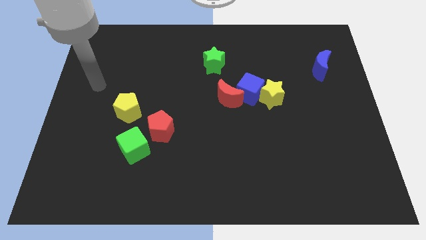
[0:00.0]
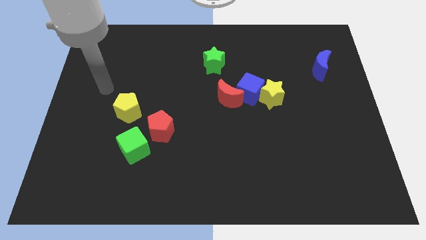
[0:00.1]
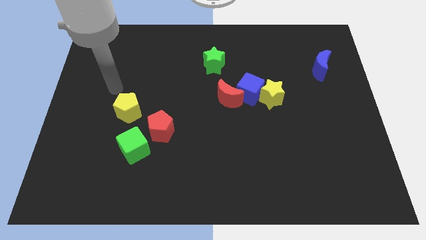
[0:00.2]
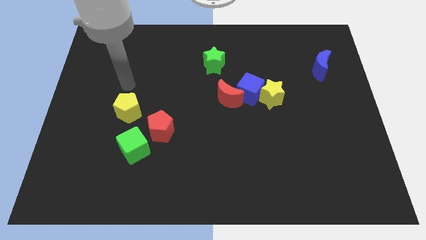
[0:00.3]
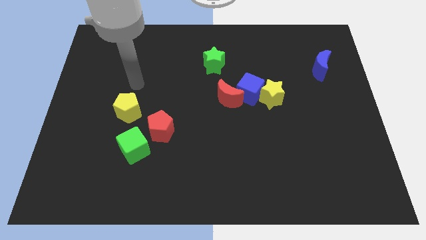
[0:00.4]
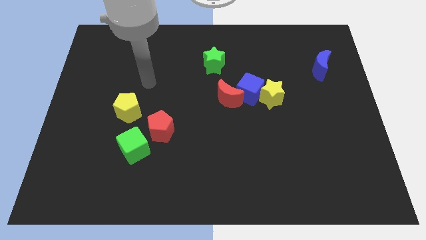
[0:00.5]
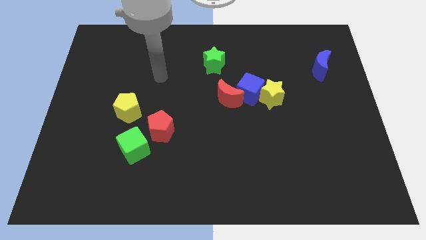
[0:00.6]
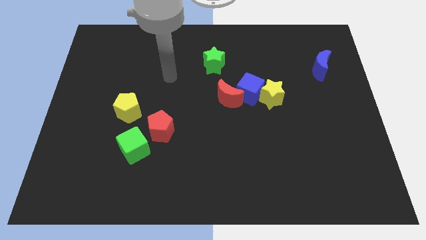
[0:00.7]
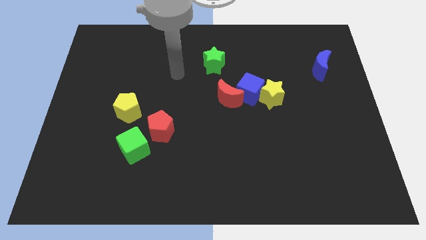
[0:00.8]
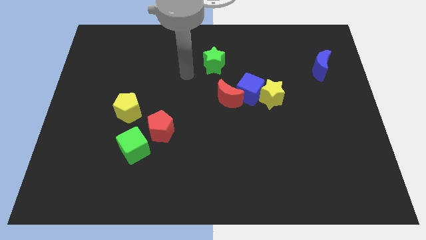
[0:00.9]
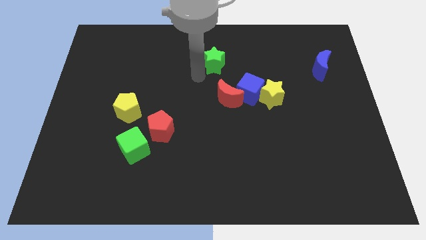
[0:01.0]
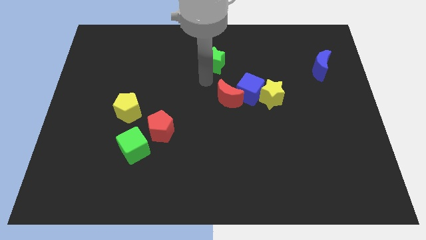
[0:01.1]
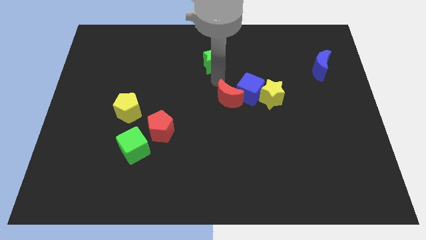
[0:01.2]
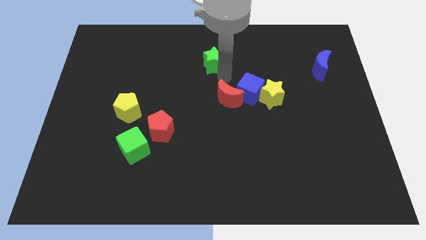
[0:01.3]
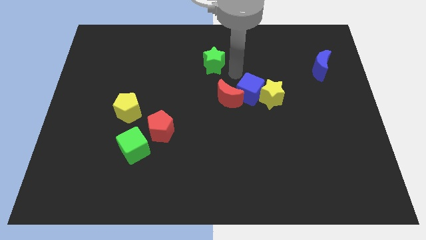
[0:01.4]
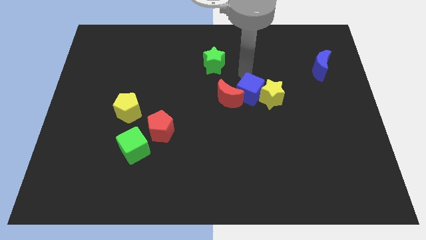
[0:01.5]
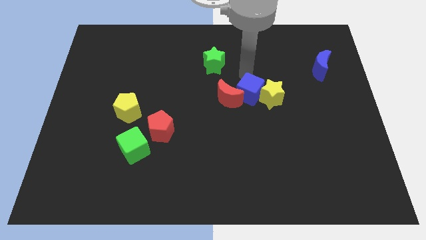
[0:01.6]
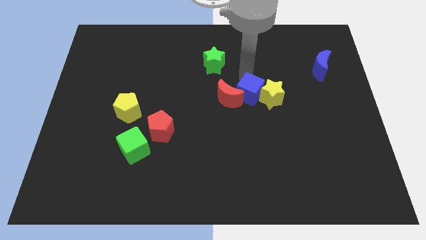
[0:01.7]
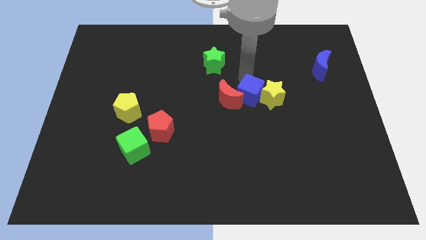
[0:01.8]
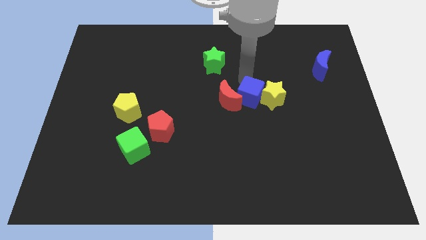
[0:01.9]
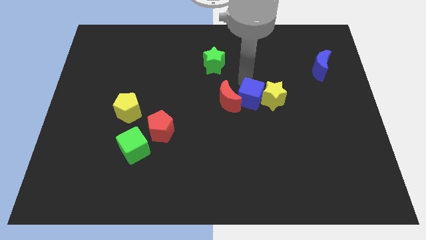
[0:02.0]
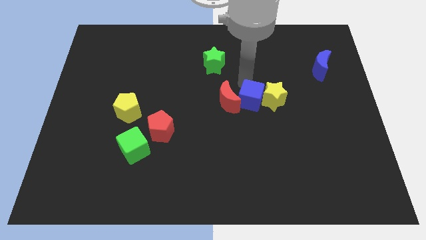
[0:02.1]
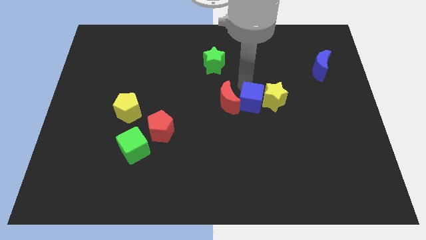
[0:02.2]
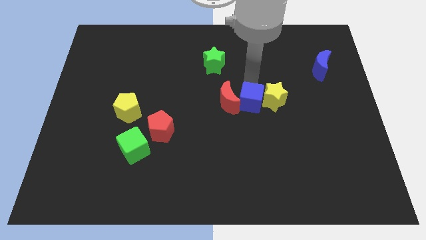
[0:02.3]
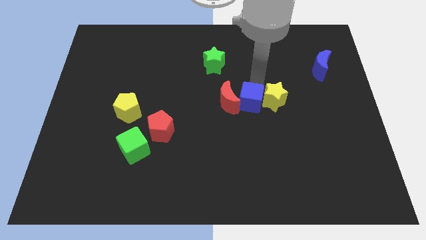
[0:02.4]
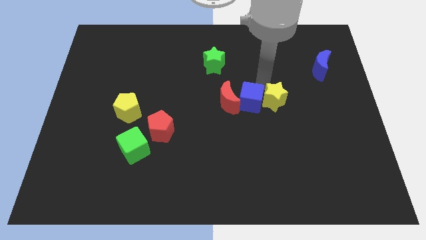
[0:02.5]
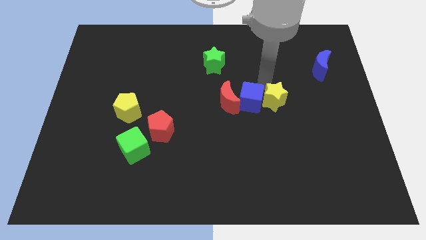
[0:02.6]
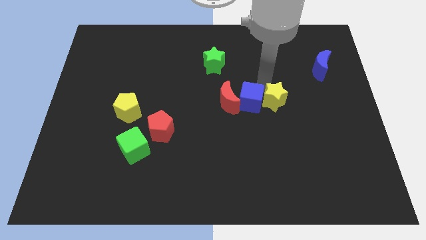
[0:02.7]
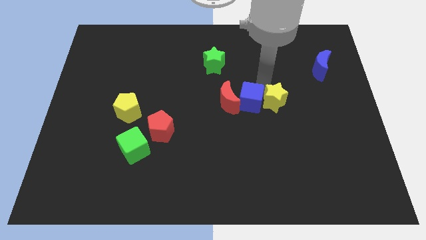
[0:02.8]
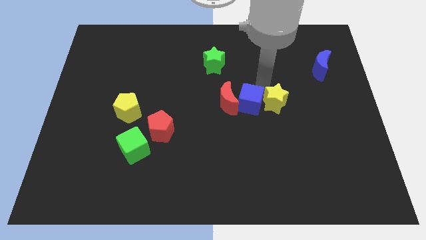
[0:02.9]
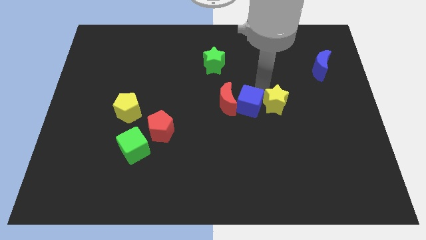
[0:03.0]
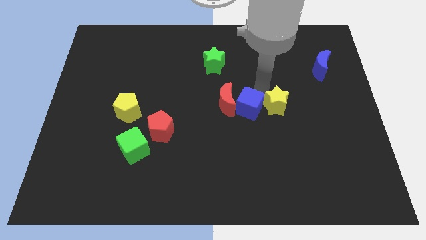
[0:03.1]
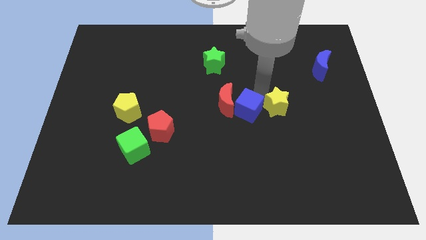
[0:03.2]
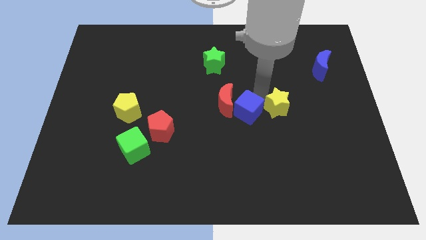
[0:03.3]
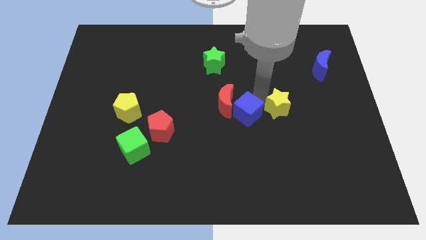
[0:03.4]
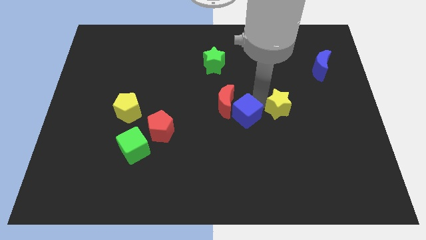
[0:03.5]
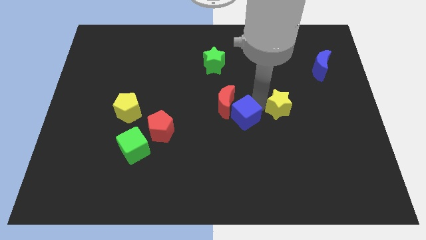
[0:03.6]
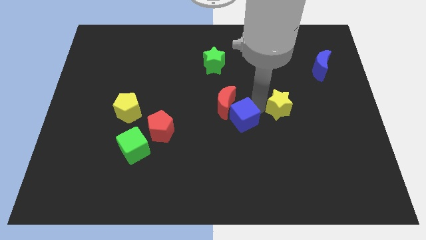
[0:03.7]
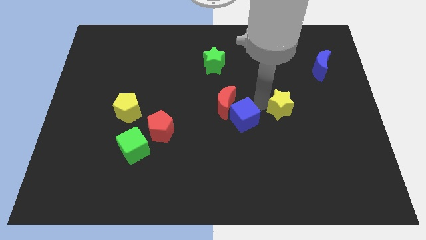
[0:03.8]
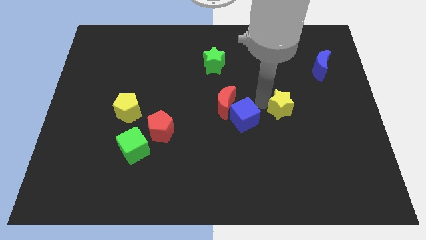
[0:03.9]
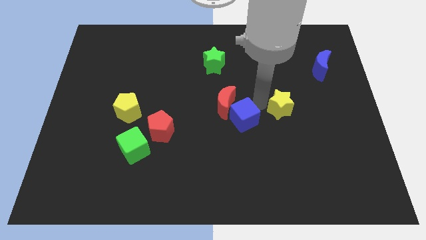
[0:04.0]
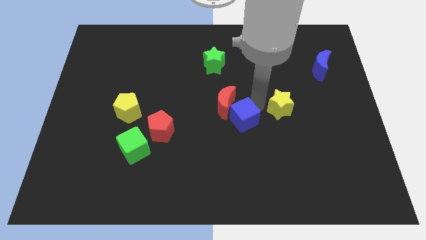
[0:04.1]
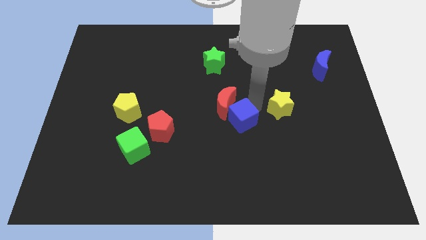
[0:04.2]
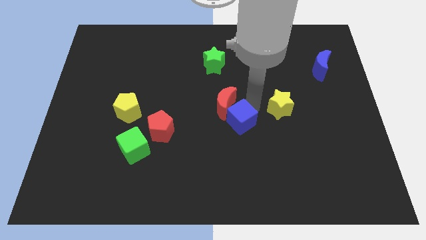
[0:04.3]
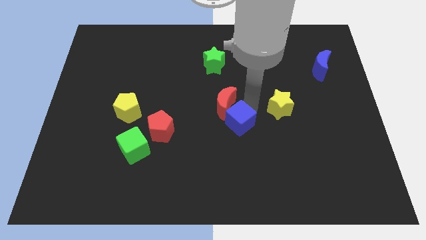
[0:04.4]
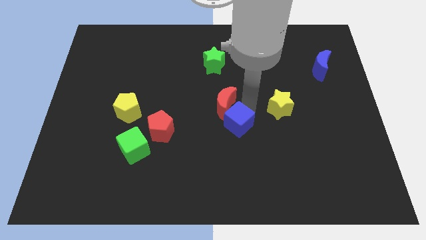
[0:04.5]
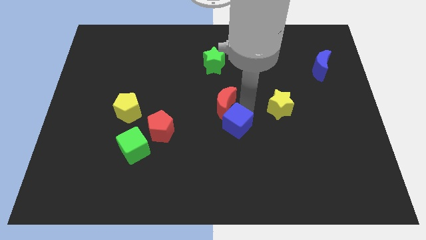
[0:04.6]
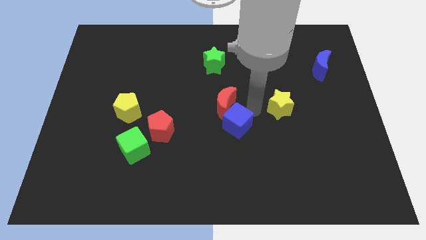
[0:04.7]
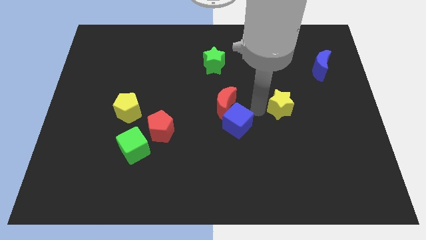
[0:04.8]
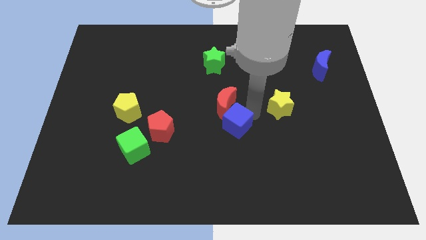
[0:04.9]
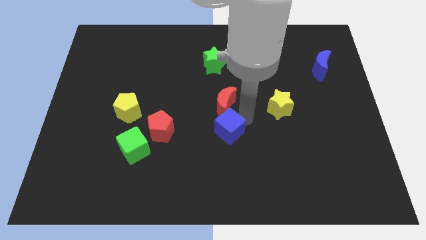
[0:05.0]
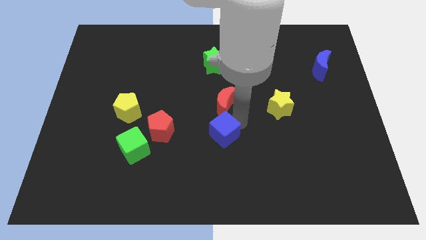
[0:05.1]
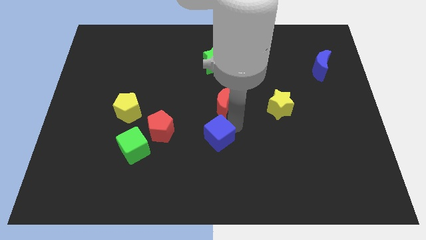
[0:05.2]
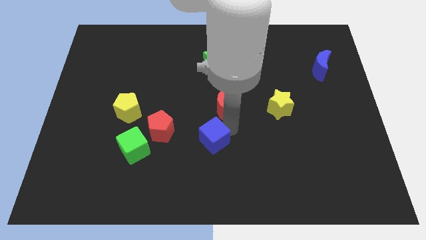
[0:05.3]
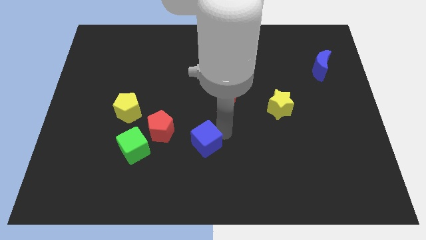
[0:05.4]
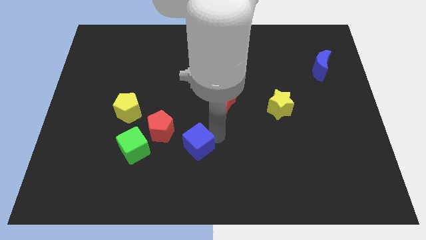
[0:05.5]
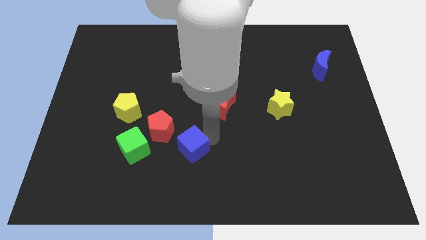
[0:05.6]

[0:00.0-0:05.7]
move the blue cube downwards and to the left

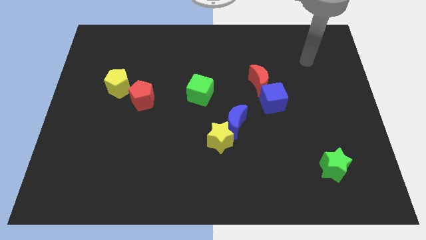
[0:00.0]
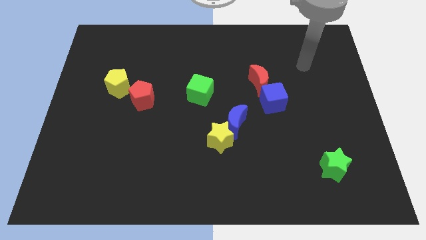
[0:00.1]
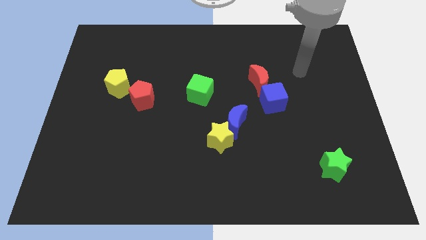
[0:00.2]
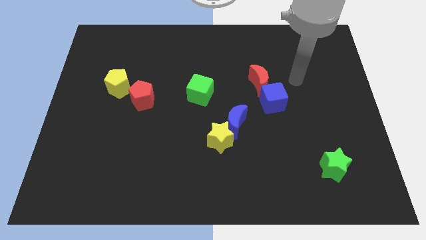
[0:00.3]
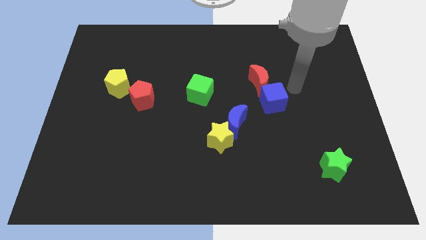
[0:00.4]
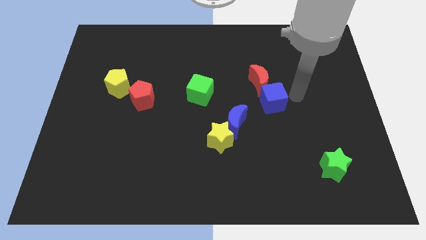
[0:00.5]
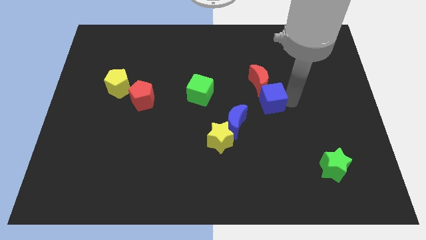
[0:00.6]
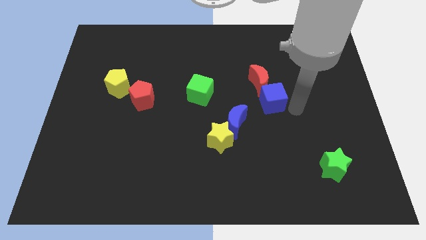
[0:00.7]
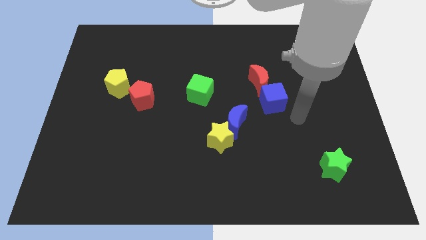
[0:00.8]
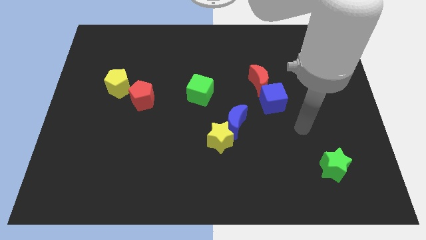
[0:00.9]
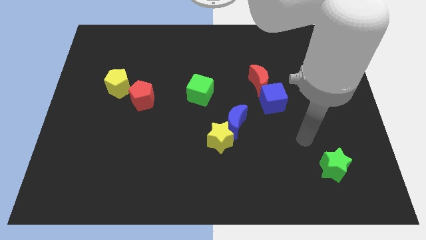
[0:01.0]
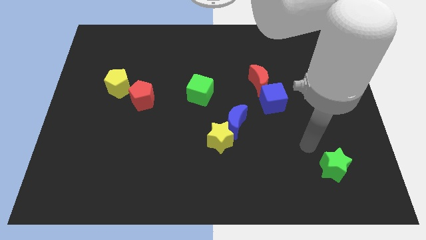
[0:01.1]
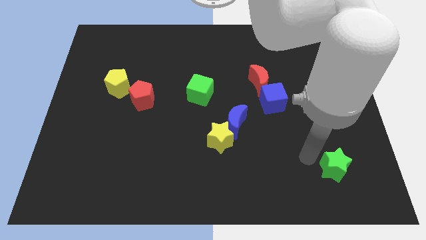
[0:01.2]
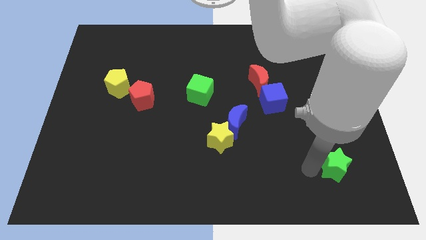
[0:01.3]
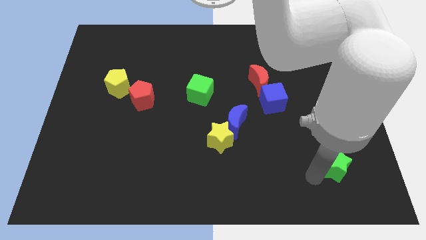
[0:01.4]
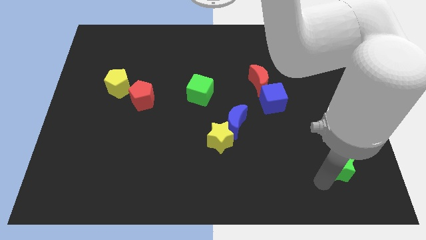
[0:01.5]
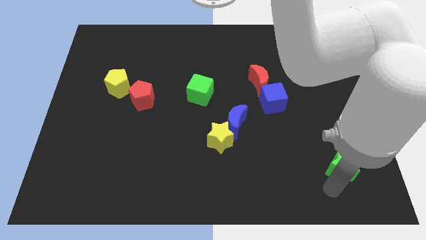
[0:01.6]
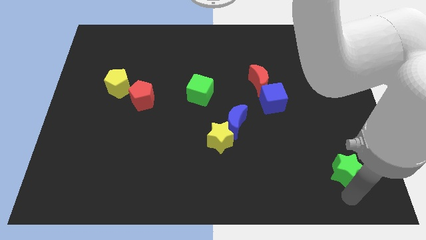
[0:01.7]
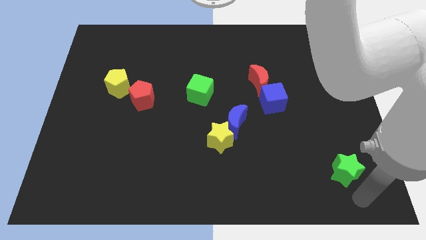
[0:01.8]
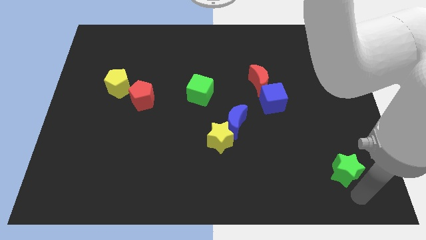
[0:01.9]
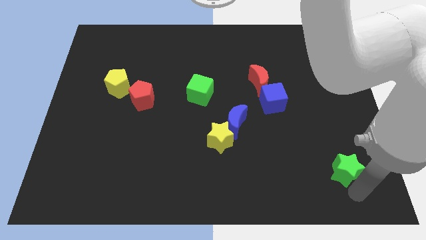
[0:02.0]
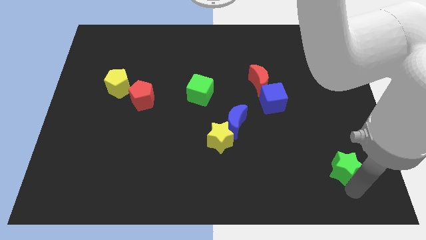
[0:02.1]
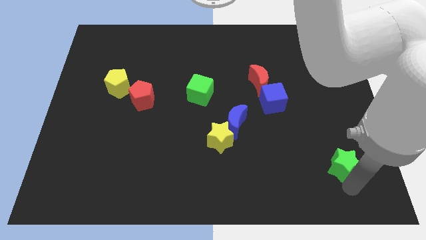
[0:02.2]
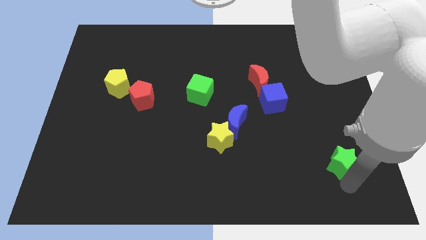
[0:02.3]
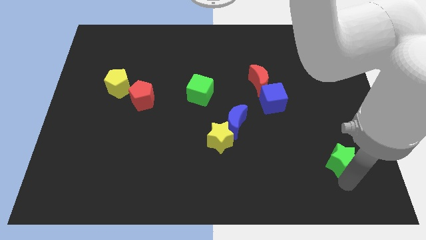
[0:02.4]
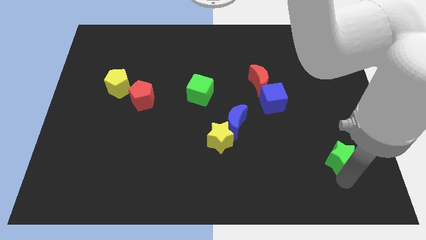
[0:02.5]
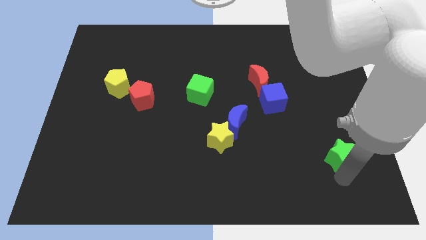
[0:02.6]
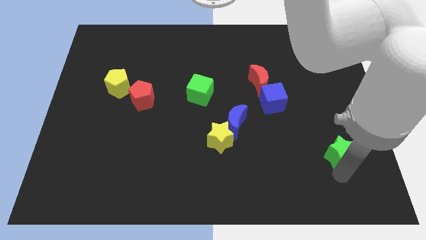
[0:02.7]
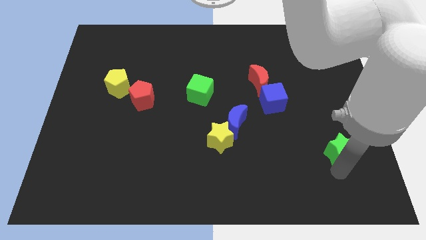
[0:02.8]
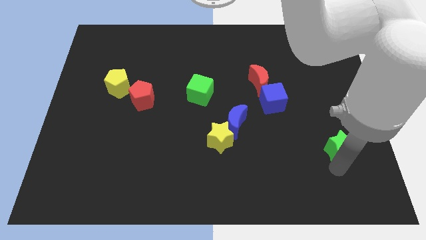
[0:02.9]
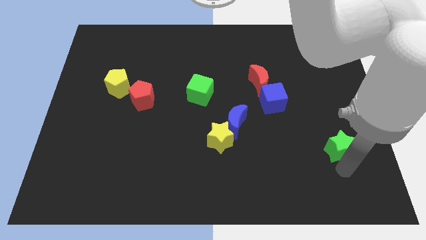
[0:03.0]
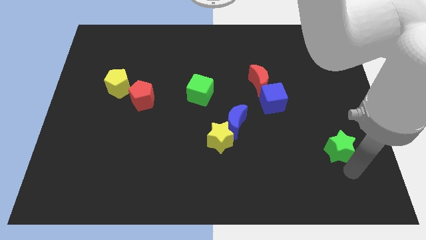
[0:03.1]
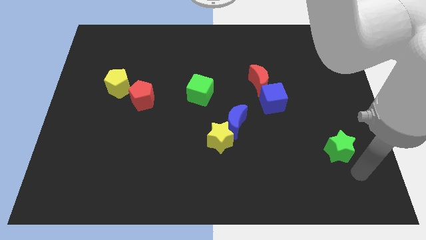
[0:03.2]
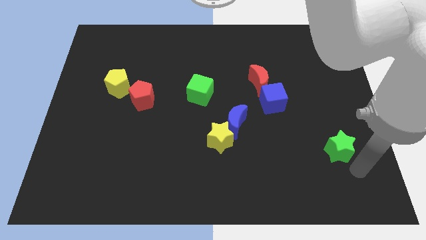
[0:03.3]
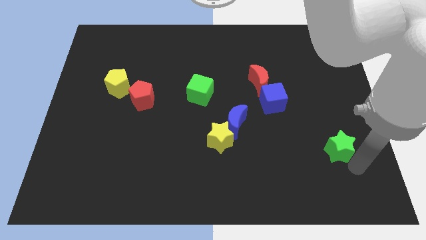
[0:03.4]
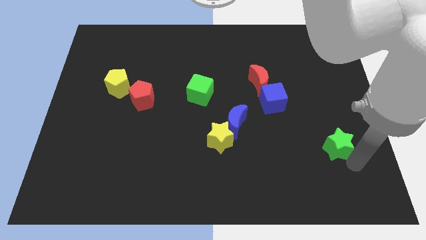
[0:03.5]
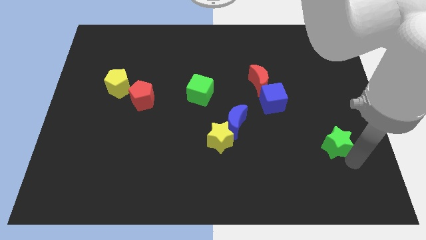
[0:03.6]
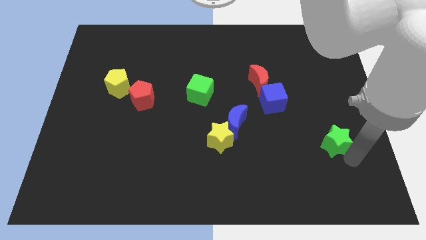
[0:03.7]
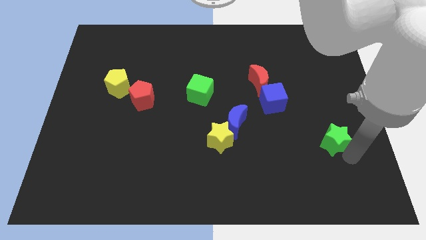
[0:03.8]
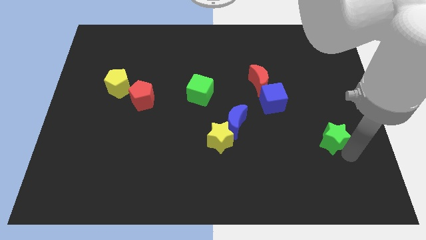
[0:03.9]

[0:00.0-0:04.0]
move the green star a bit upwards
